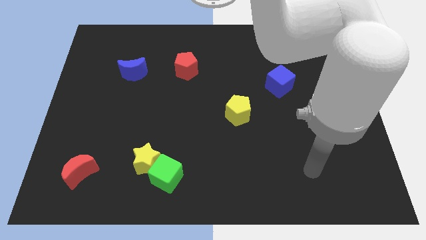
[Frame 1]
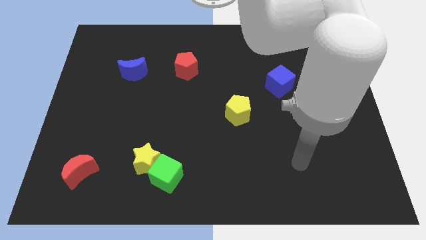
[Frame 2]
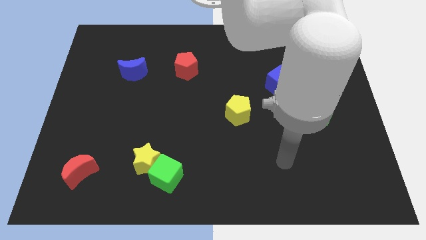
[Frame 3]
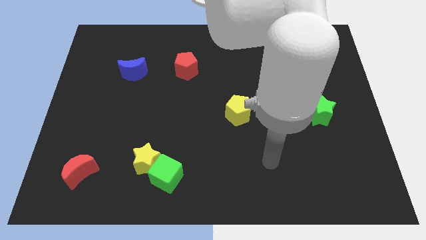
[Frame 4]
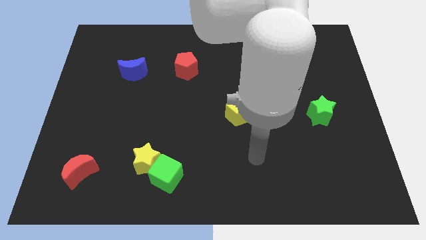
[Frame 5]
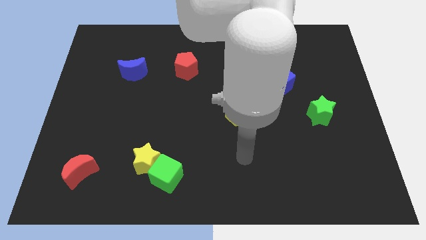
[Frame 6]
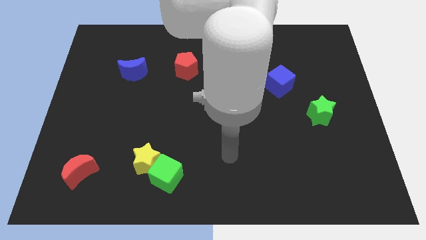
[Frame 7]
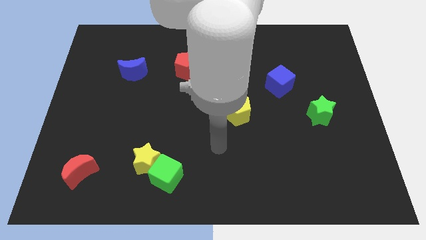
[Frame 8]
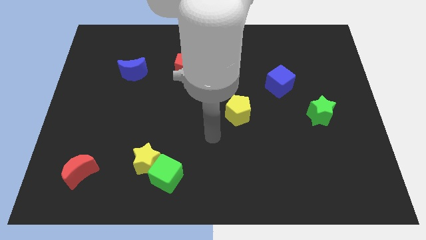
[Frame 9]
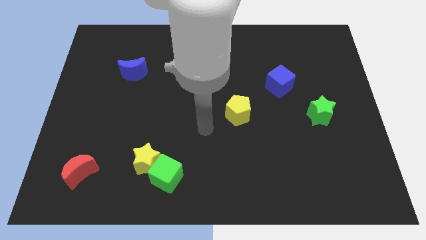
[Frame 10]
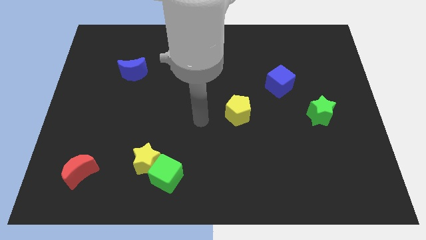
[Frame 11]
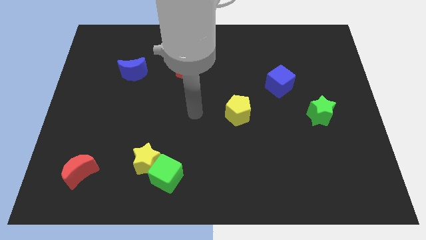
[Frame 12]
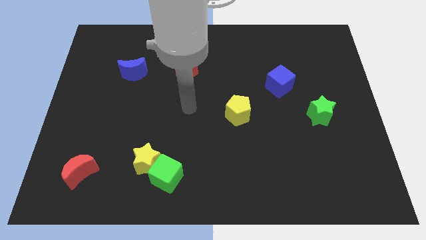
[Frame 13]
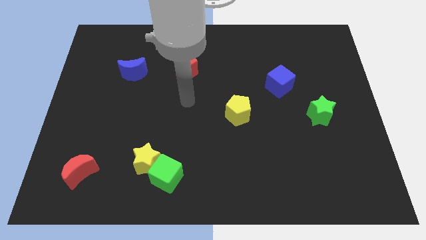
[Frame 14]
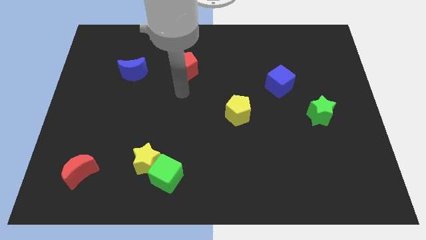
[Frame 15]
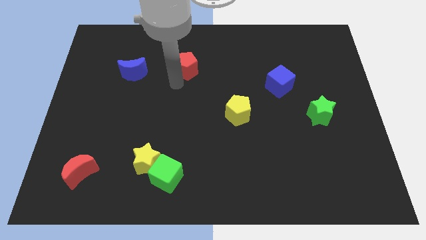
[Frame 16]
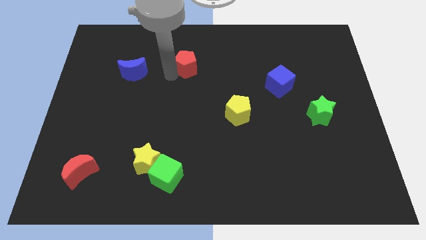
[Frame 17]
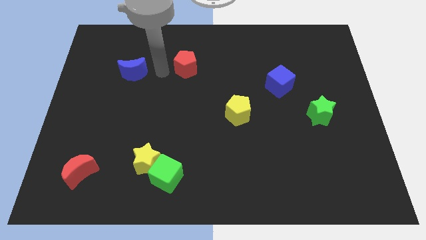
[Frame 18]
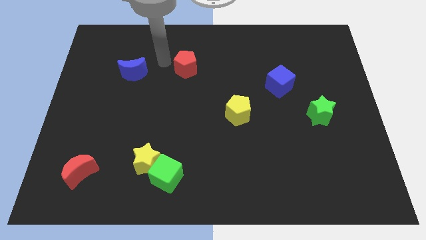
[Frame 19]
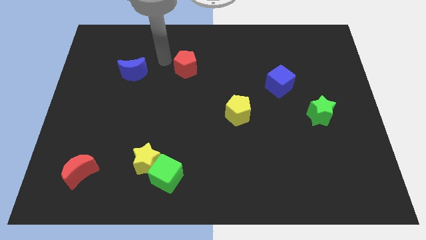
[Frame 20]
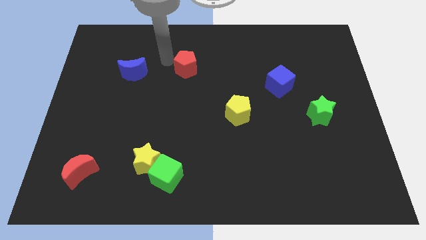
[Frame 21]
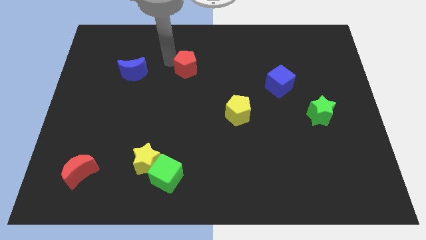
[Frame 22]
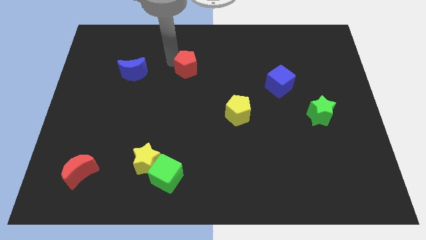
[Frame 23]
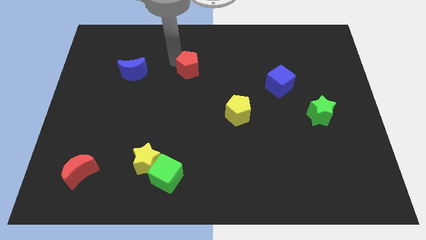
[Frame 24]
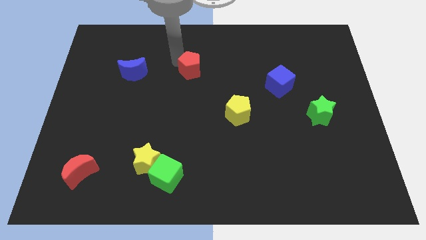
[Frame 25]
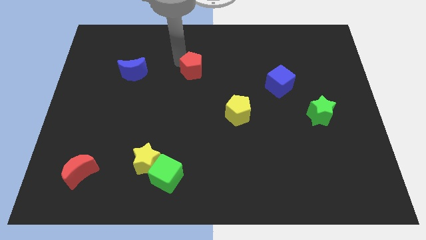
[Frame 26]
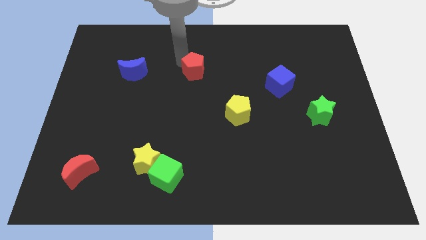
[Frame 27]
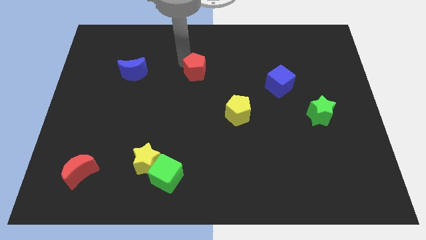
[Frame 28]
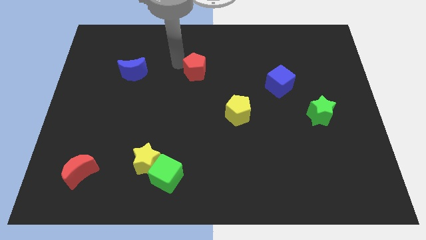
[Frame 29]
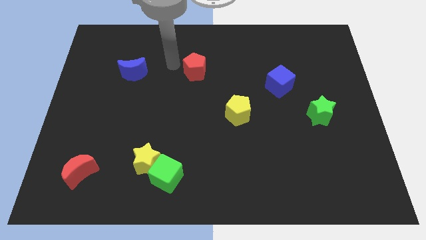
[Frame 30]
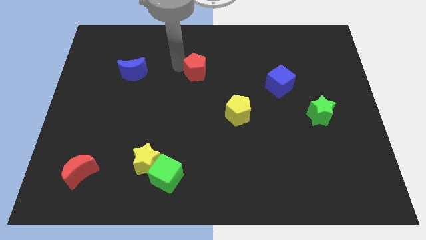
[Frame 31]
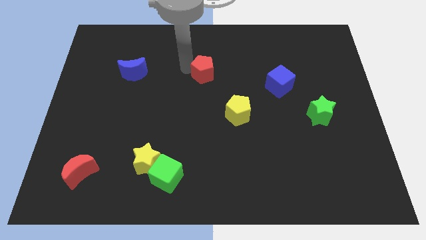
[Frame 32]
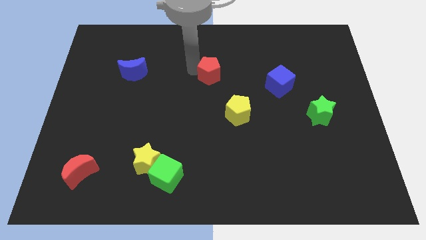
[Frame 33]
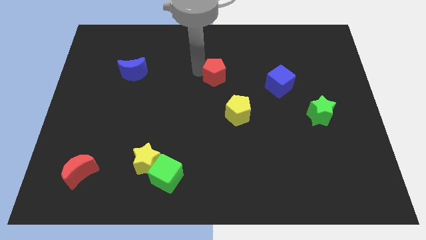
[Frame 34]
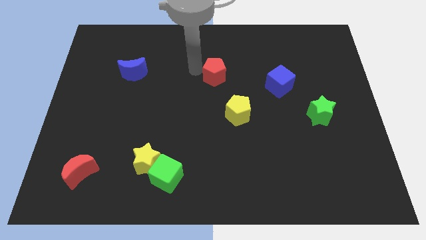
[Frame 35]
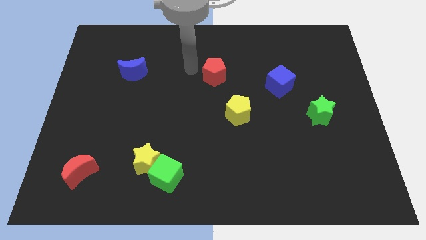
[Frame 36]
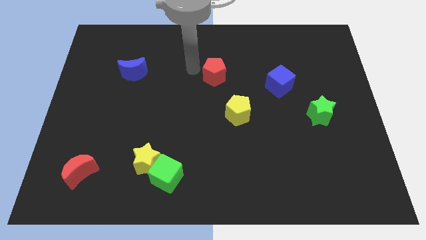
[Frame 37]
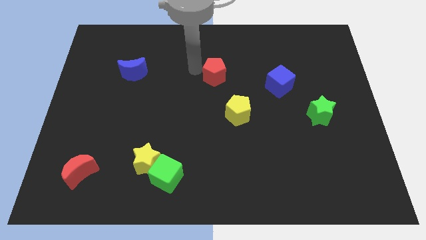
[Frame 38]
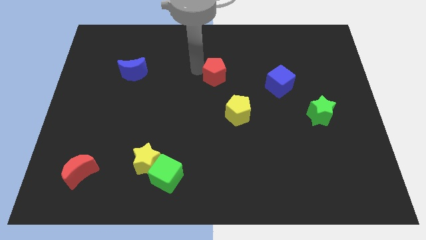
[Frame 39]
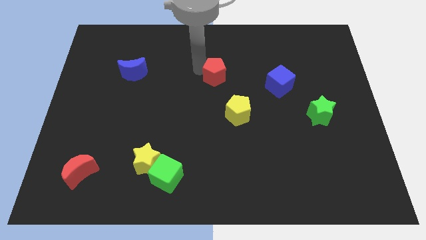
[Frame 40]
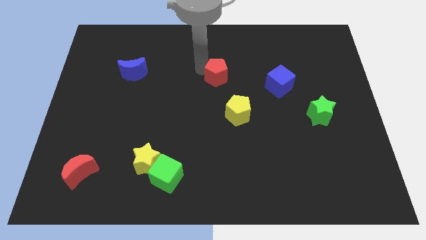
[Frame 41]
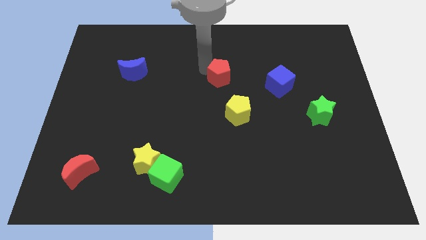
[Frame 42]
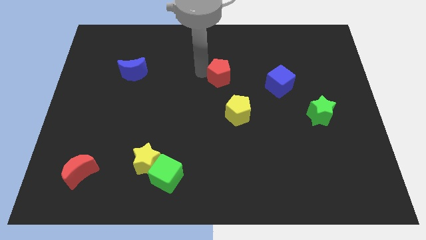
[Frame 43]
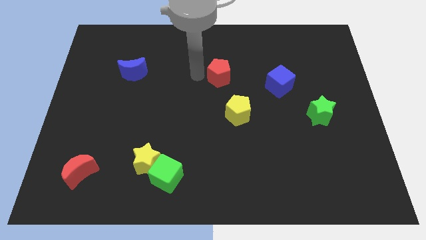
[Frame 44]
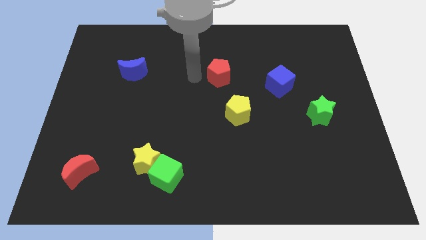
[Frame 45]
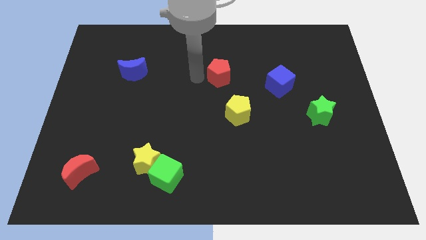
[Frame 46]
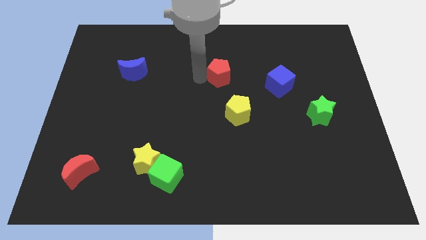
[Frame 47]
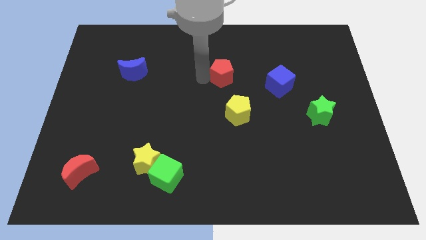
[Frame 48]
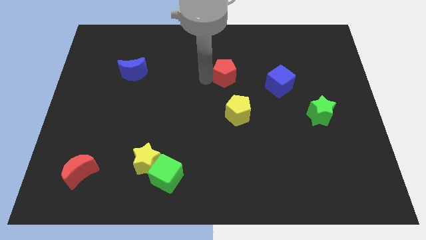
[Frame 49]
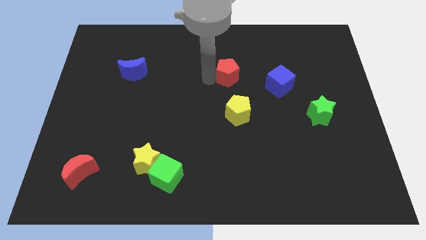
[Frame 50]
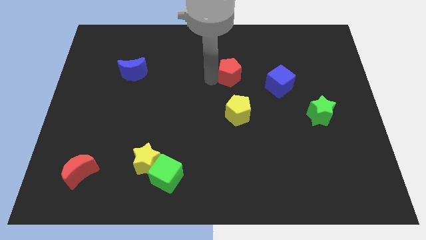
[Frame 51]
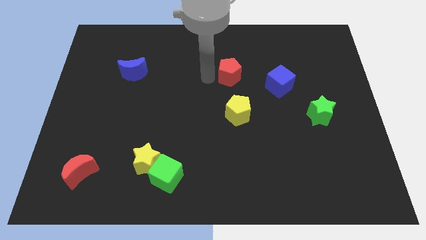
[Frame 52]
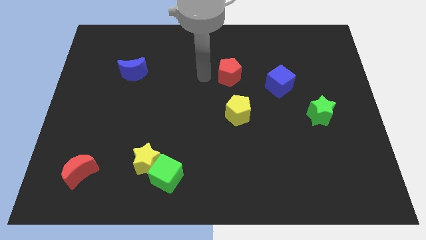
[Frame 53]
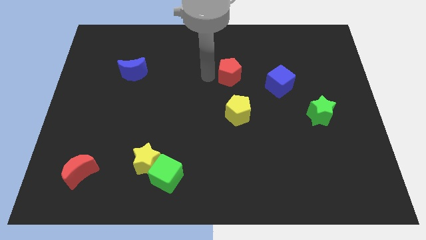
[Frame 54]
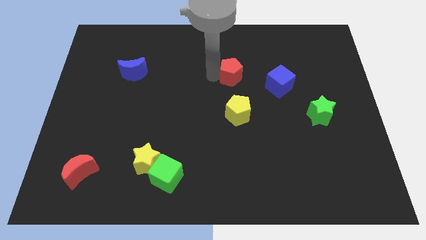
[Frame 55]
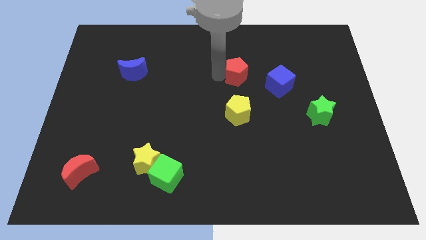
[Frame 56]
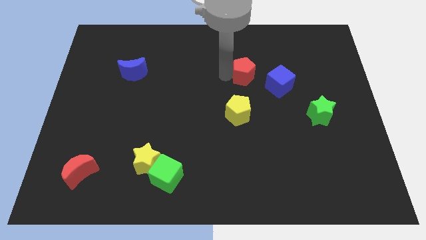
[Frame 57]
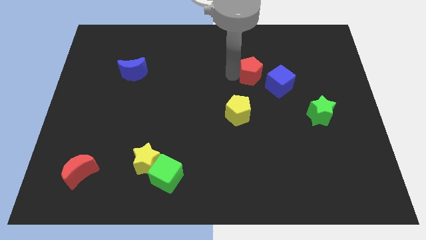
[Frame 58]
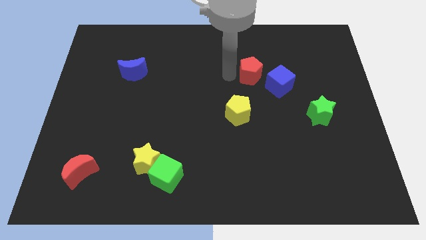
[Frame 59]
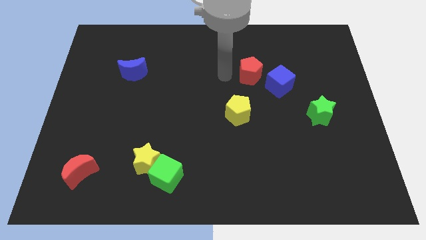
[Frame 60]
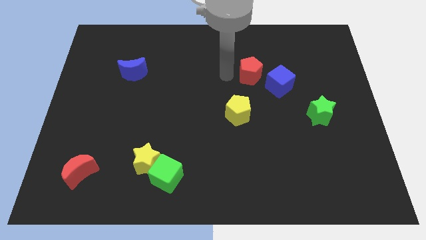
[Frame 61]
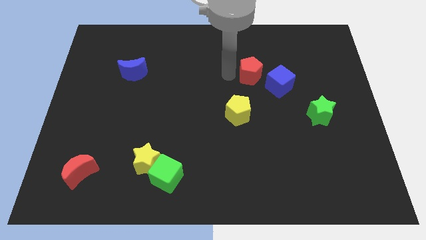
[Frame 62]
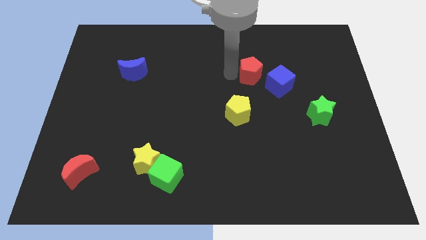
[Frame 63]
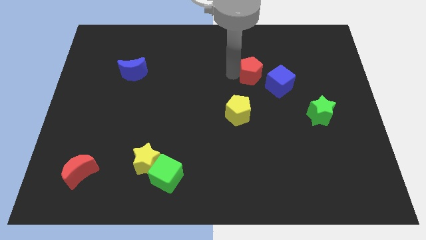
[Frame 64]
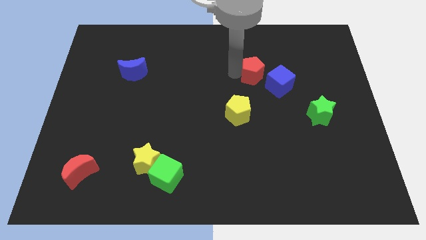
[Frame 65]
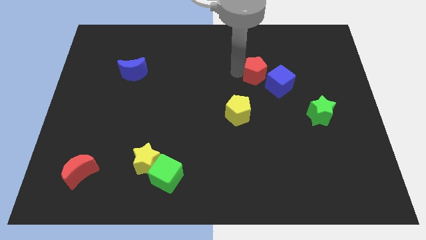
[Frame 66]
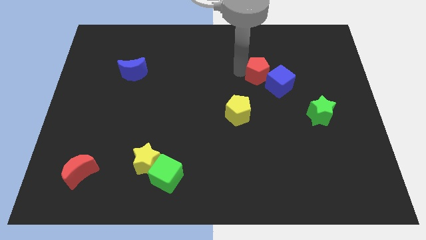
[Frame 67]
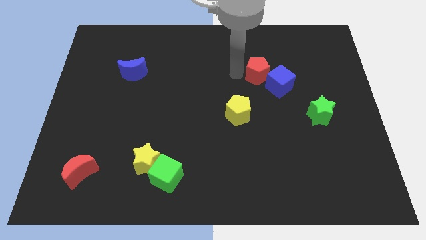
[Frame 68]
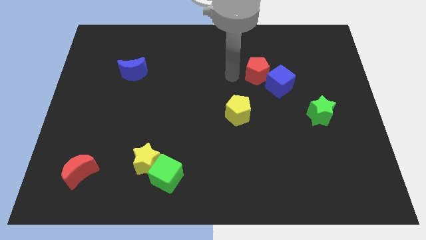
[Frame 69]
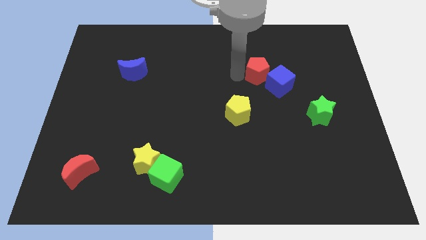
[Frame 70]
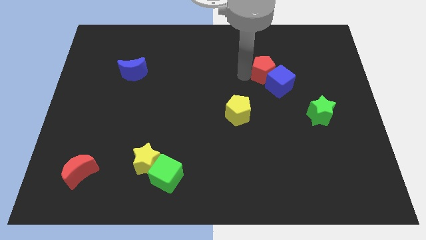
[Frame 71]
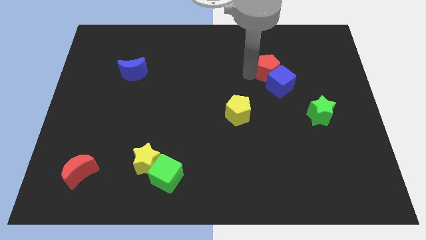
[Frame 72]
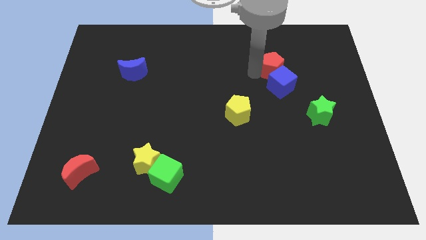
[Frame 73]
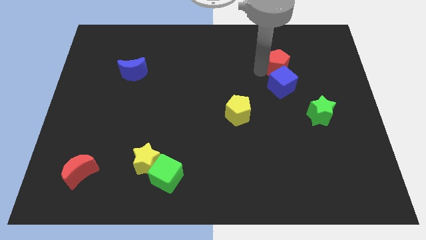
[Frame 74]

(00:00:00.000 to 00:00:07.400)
move the red pentagon to the top right side of the blue cube

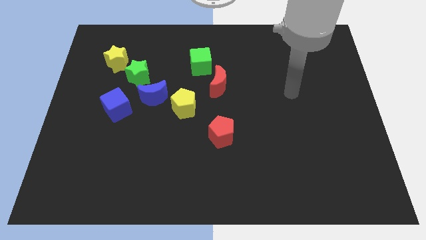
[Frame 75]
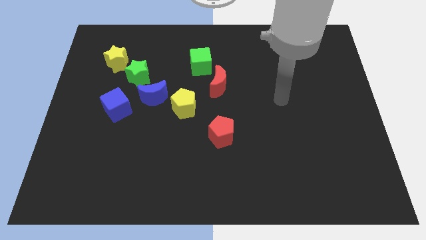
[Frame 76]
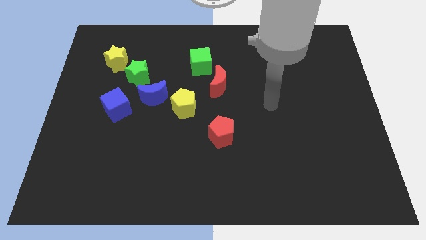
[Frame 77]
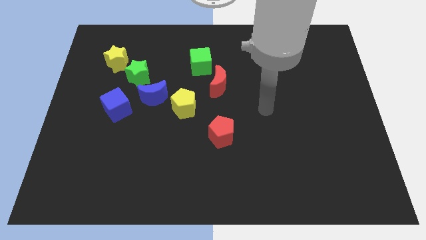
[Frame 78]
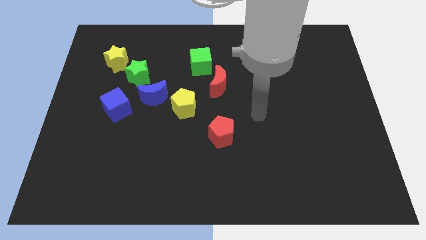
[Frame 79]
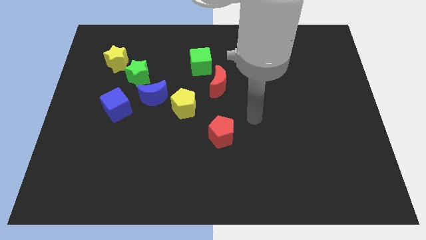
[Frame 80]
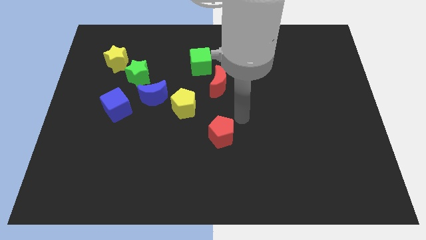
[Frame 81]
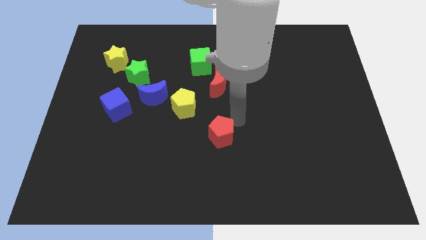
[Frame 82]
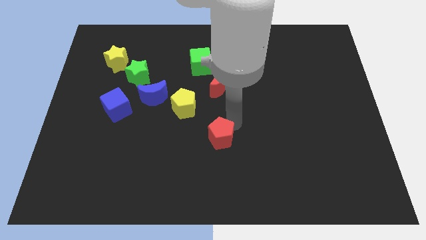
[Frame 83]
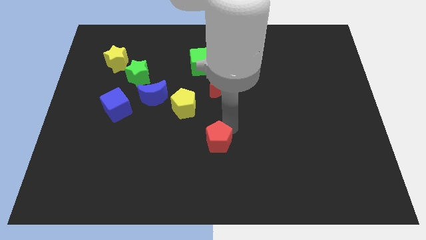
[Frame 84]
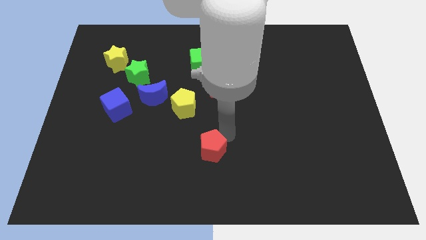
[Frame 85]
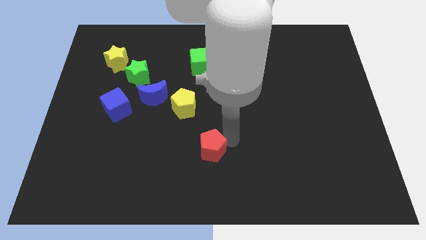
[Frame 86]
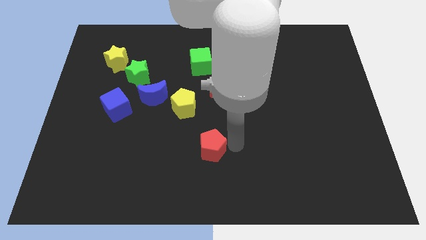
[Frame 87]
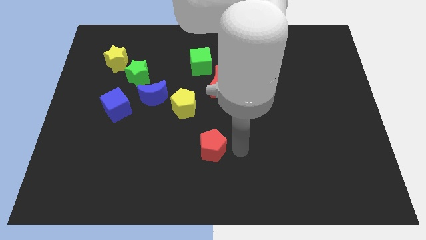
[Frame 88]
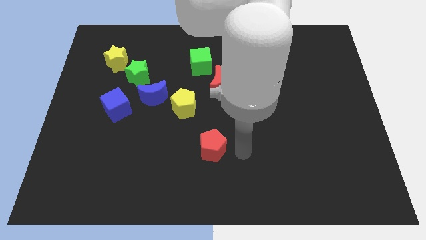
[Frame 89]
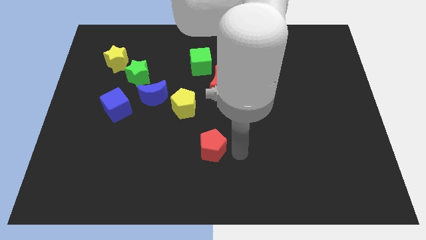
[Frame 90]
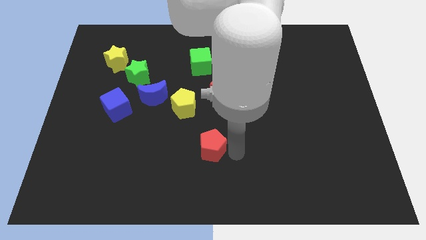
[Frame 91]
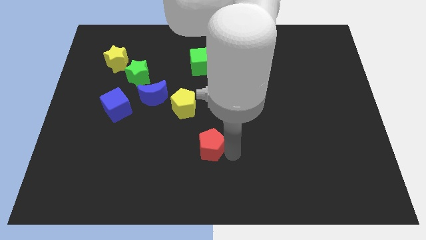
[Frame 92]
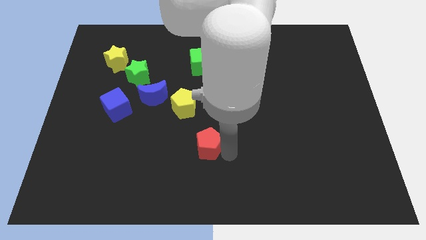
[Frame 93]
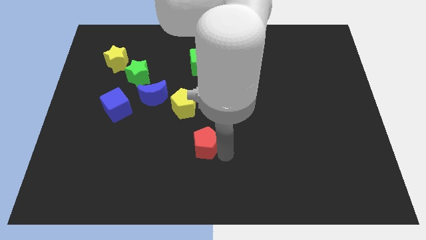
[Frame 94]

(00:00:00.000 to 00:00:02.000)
put the red pentagon to the bottom side of the yellow pentagon
